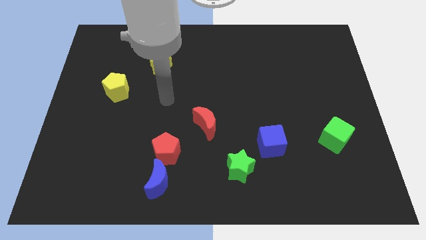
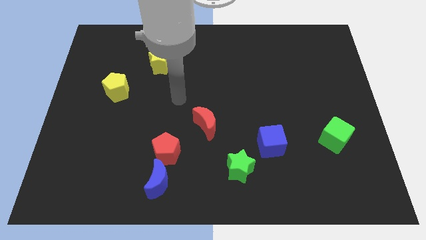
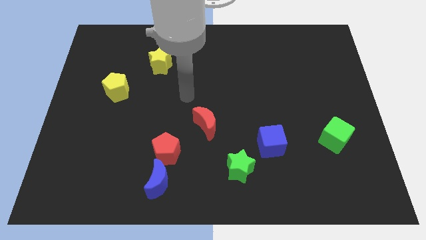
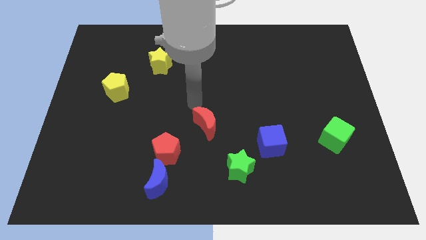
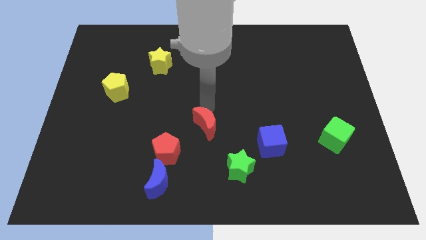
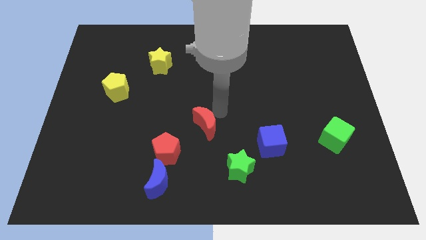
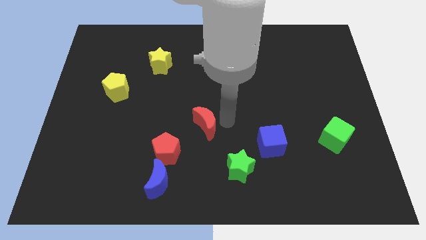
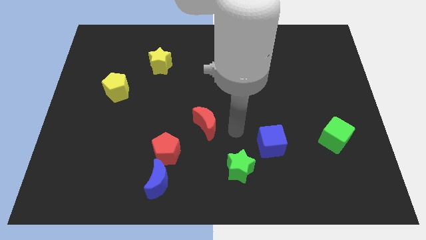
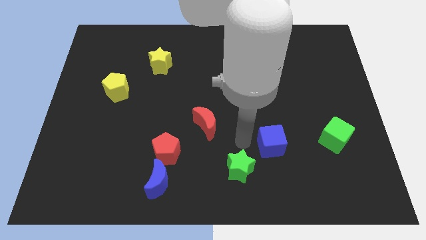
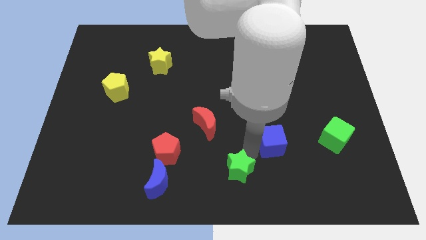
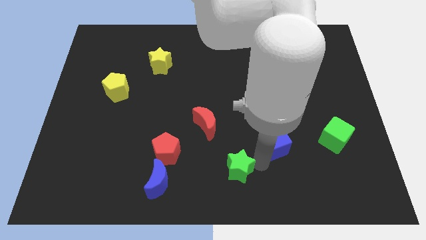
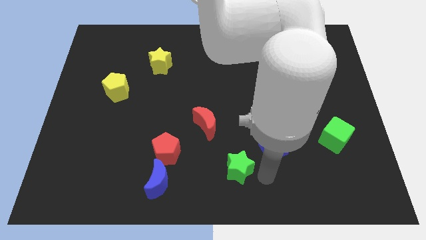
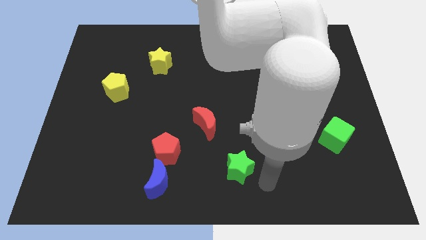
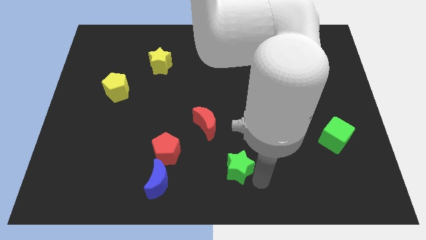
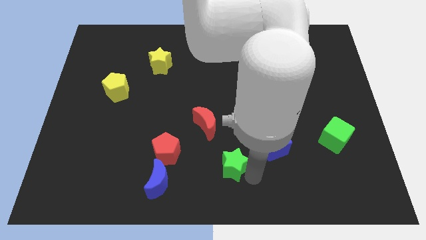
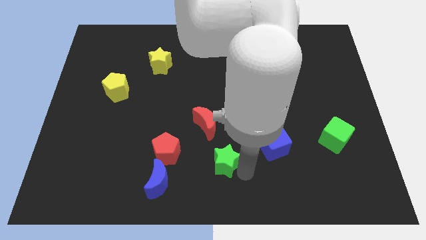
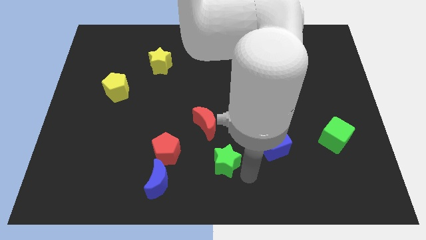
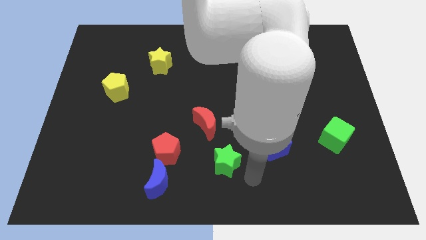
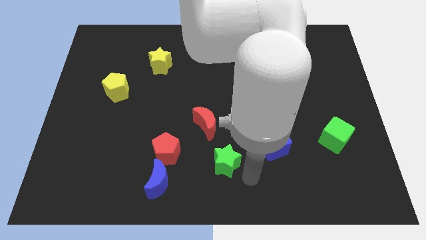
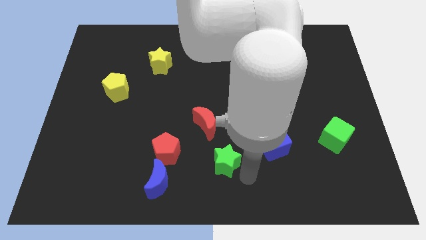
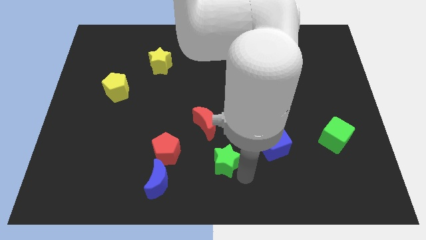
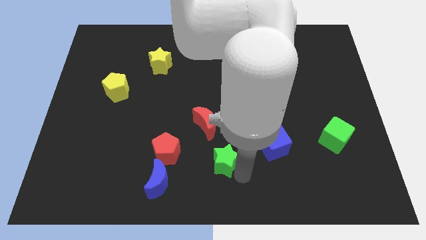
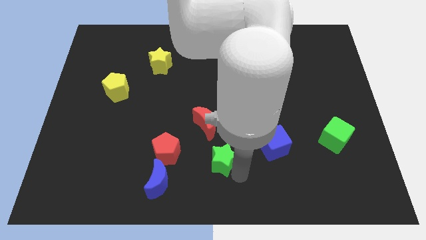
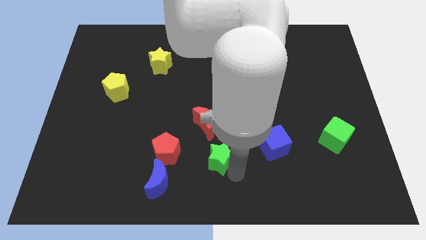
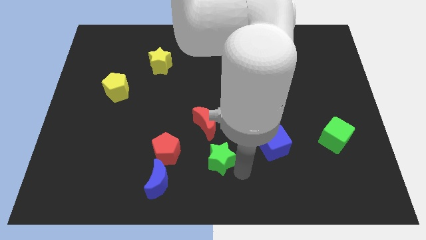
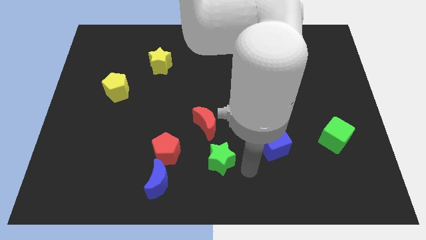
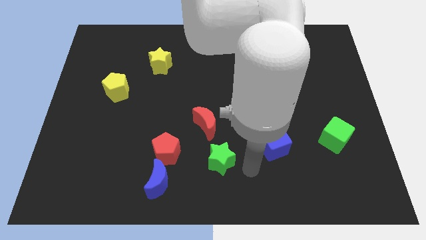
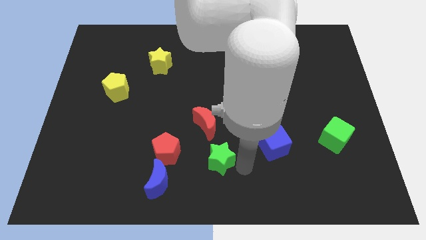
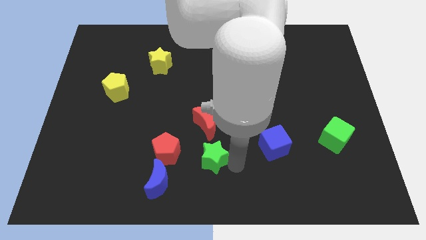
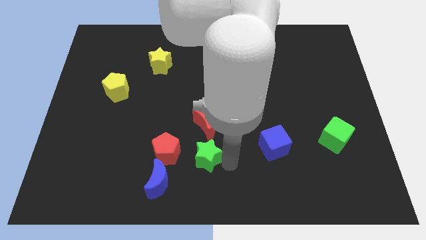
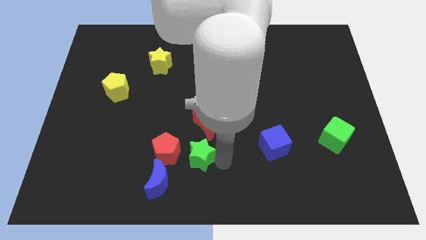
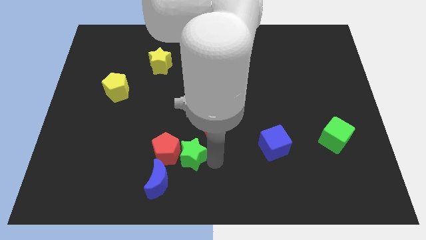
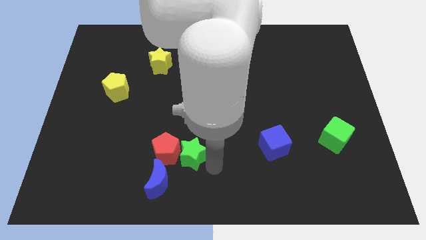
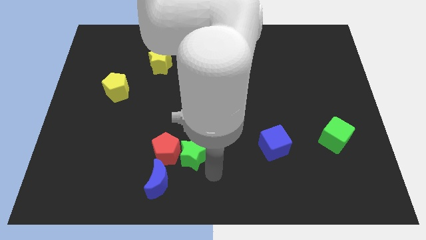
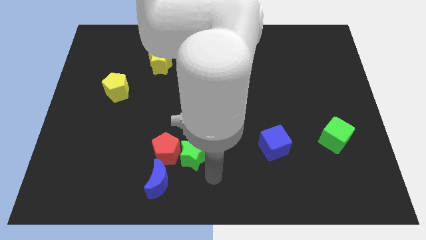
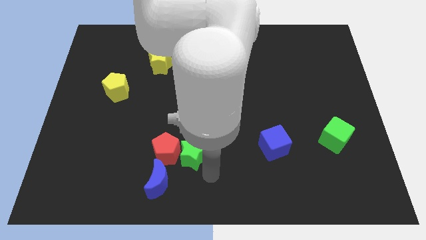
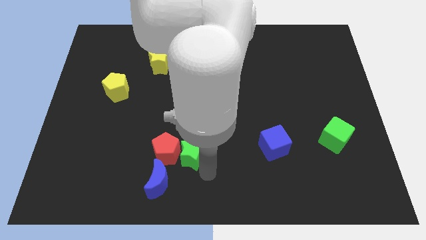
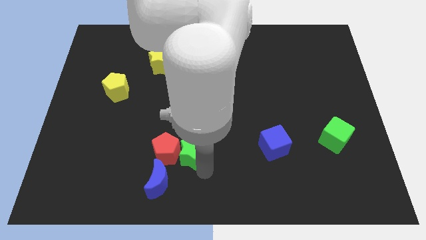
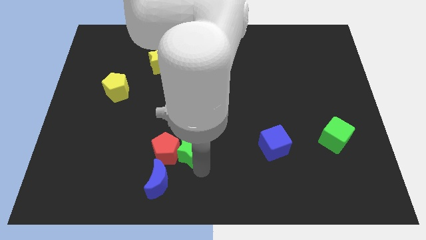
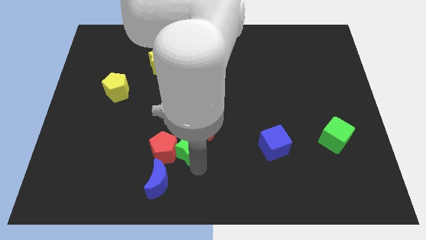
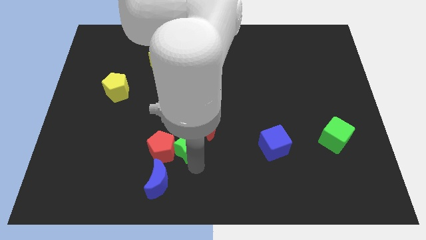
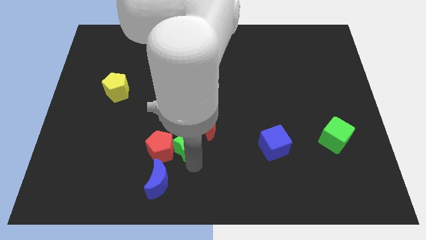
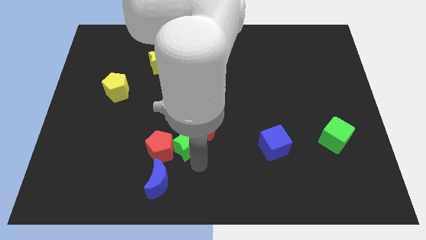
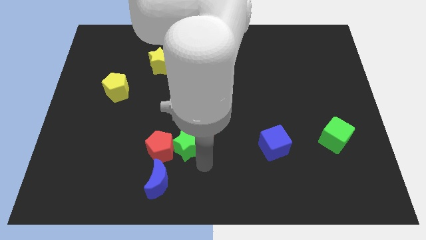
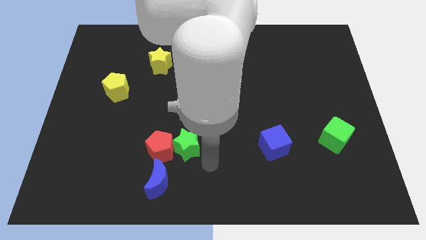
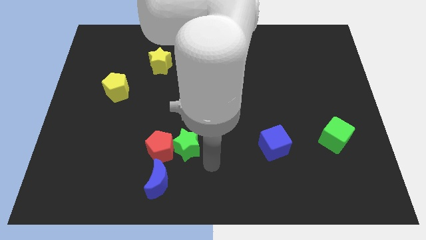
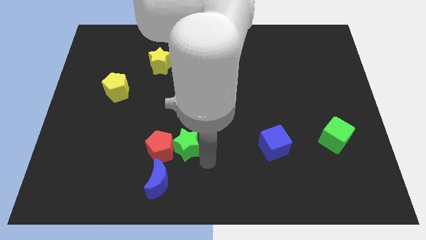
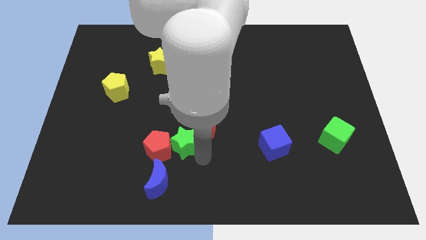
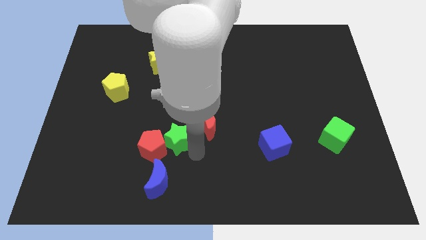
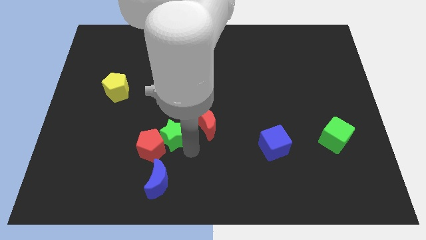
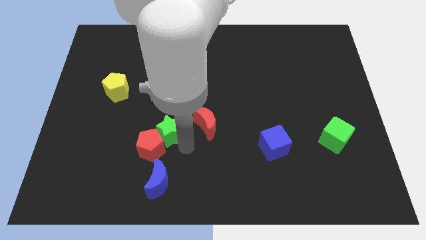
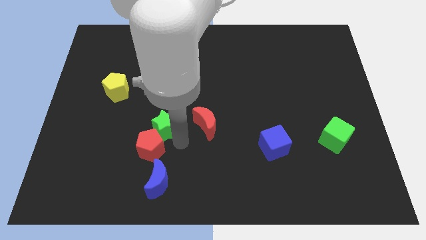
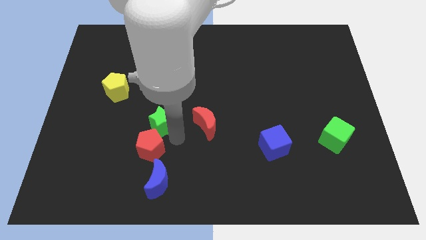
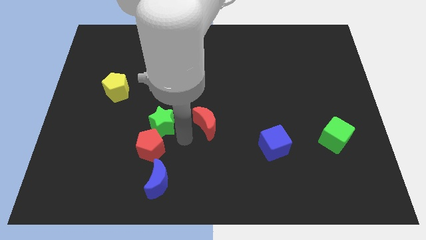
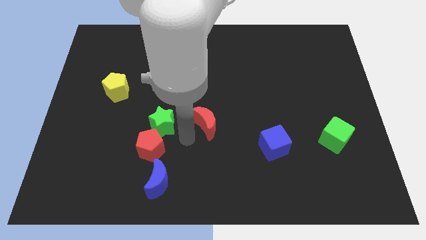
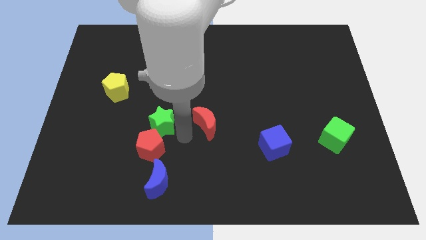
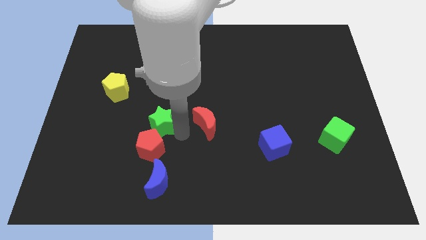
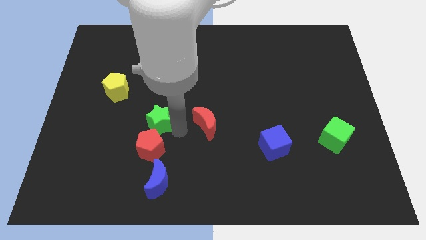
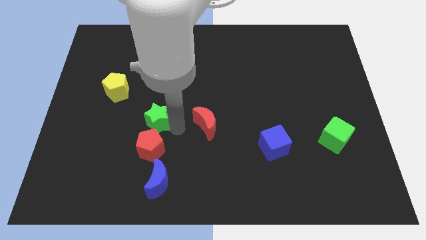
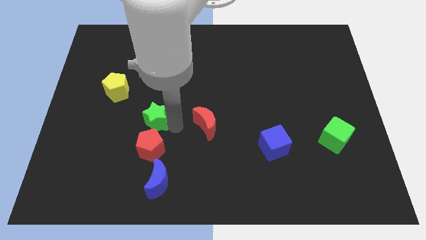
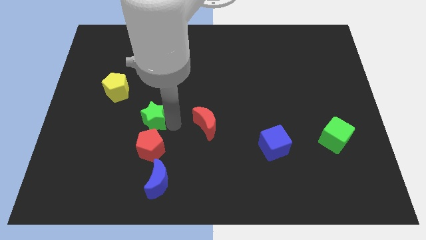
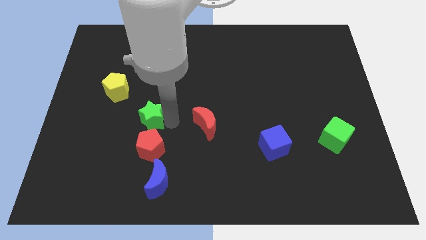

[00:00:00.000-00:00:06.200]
push the green star to the bottom right side of the yellow pentagon

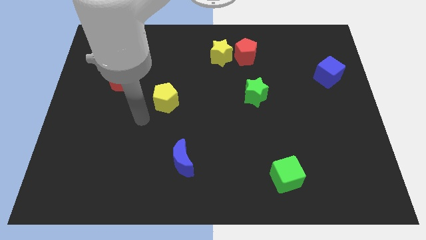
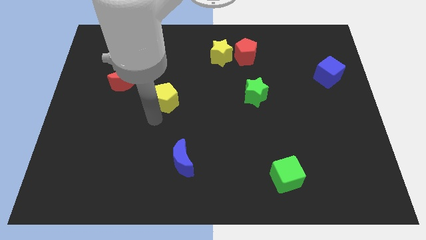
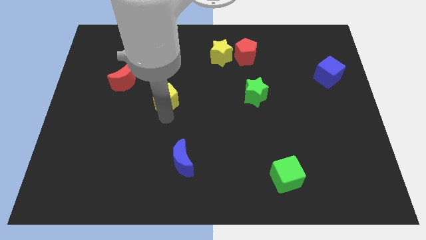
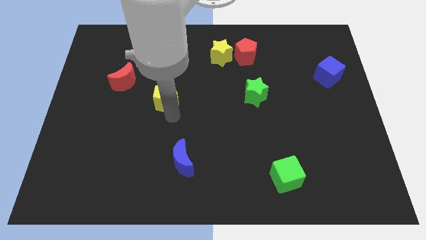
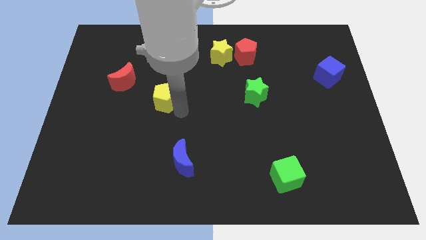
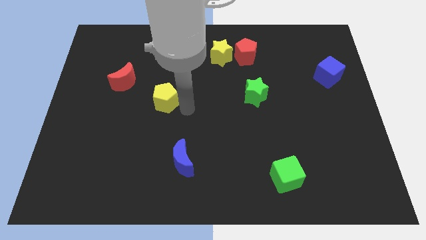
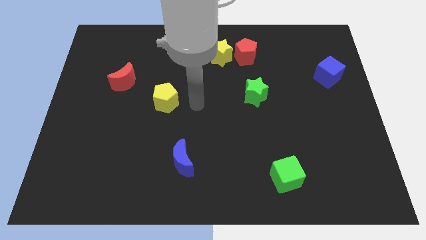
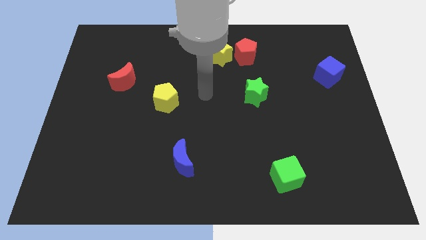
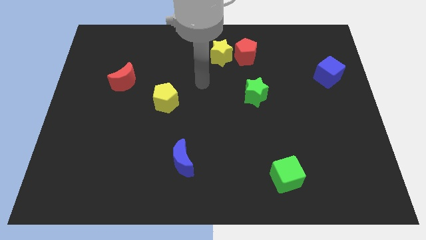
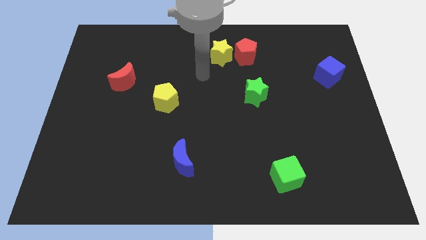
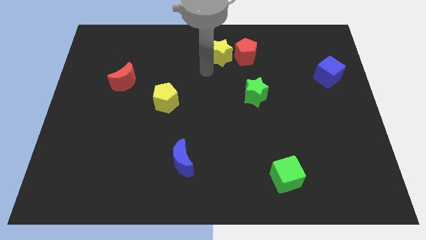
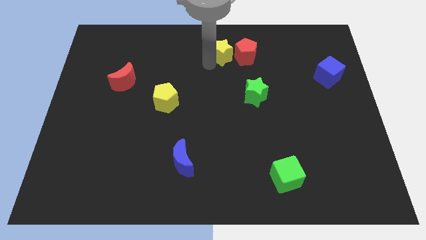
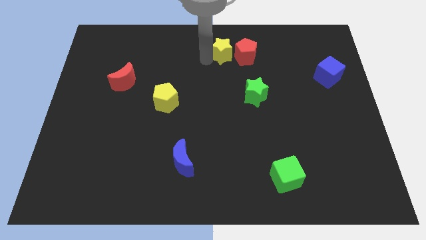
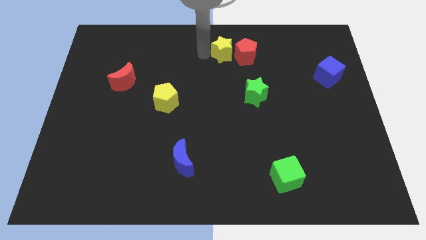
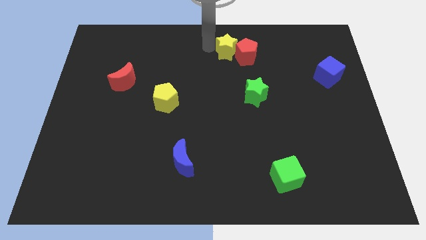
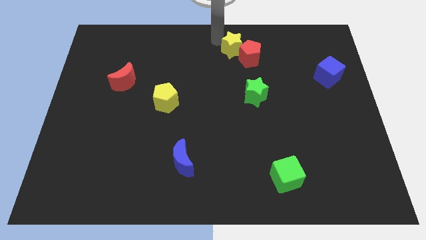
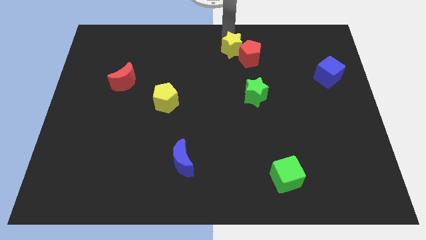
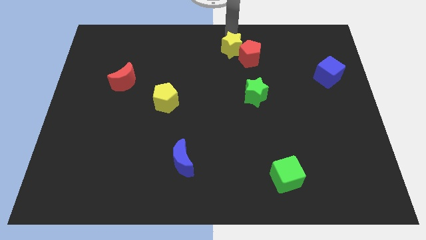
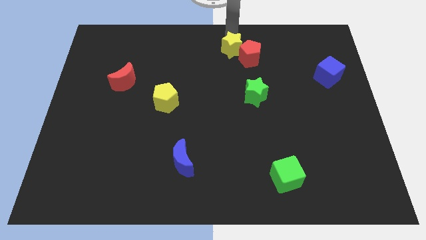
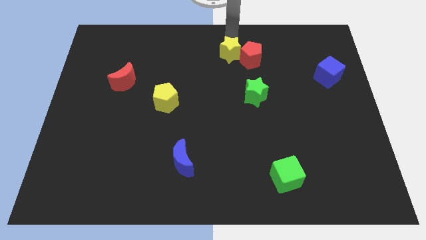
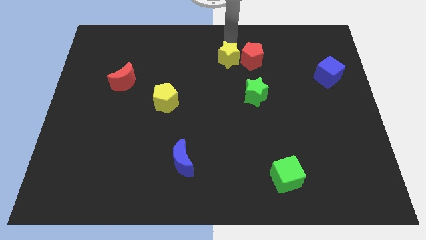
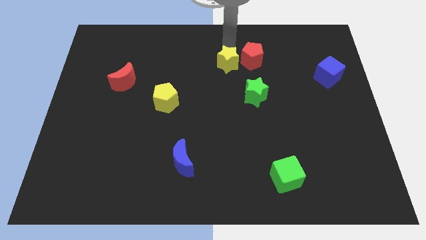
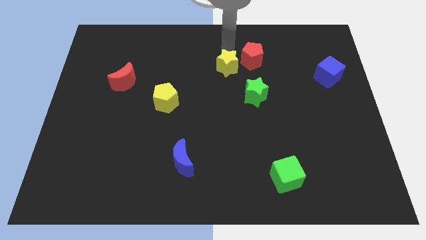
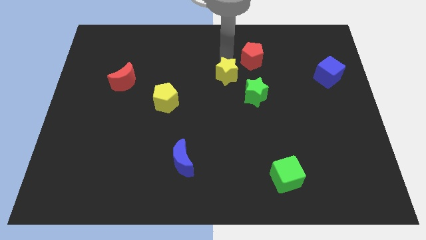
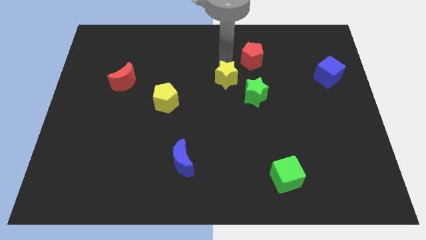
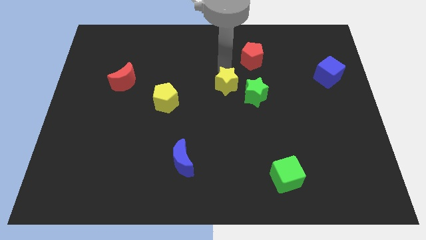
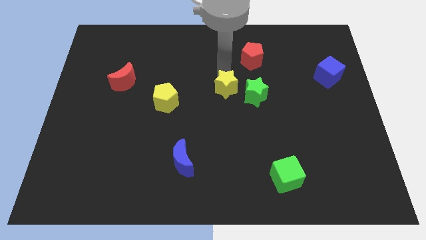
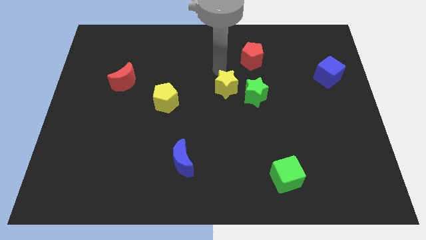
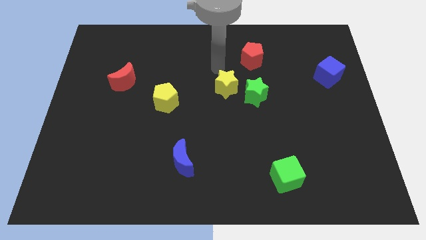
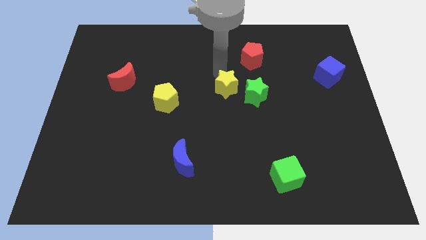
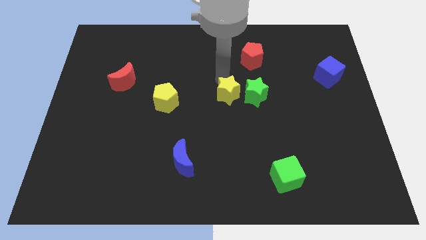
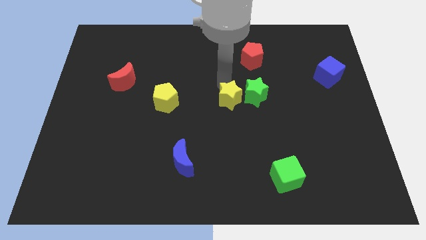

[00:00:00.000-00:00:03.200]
slide the yellow star to the bottom left side of the green star
